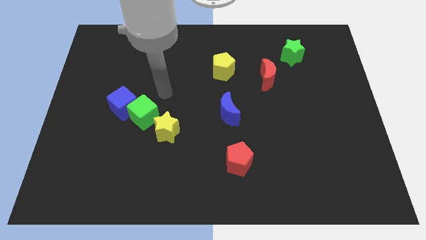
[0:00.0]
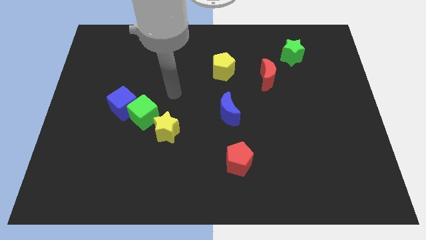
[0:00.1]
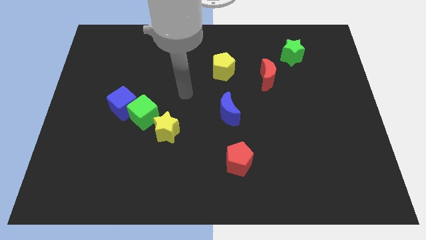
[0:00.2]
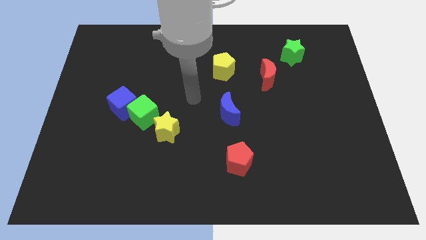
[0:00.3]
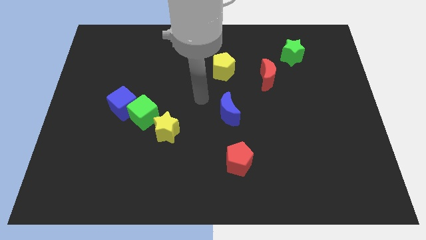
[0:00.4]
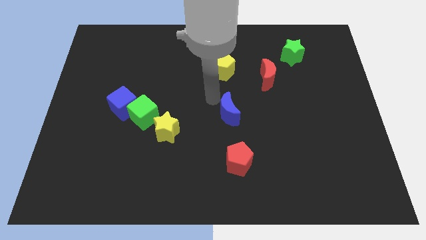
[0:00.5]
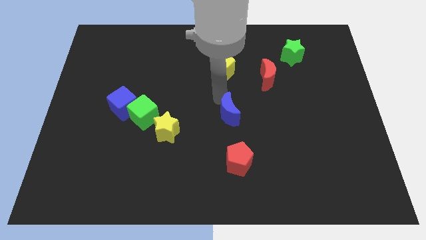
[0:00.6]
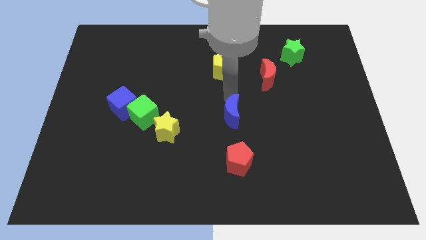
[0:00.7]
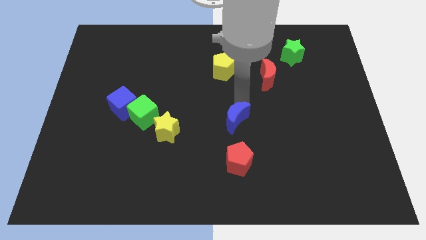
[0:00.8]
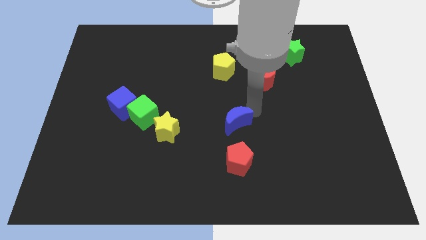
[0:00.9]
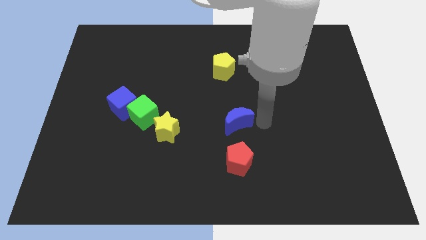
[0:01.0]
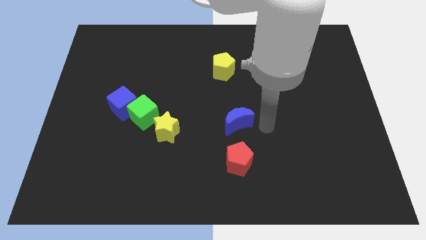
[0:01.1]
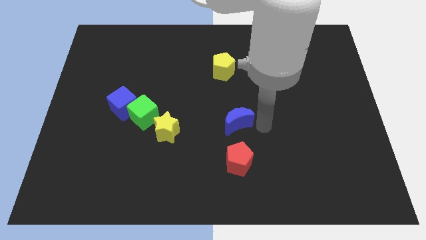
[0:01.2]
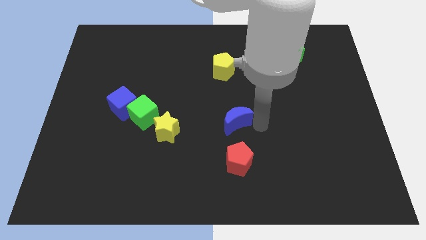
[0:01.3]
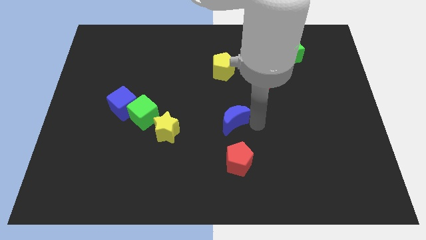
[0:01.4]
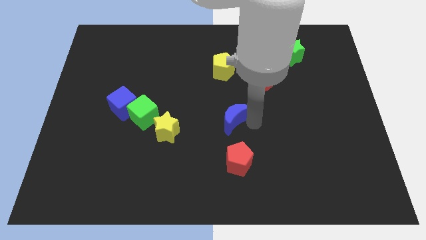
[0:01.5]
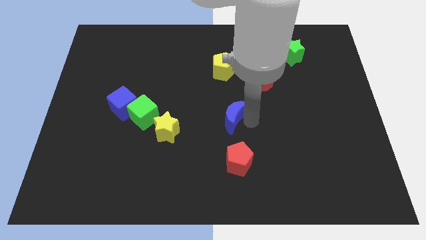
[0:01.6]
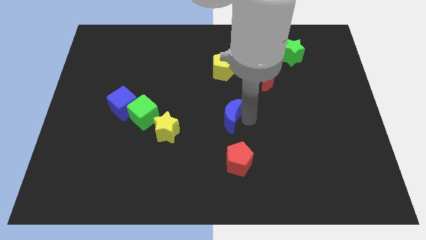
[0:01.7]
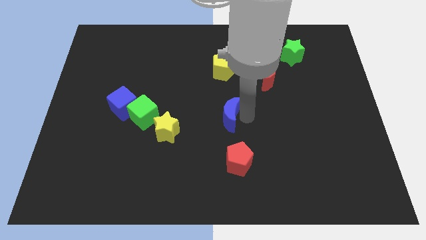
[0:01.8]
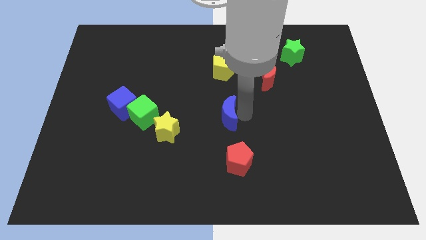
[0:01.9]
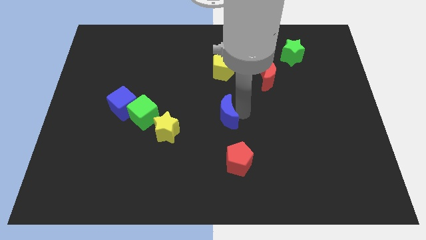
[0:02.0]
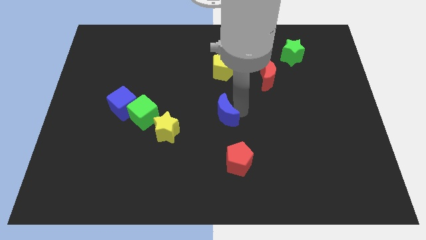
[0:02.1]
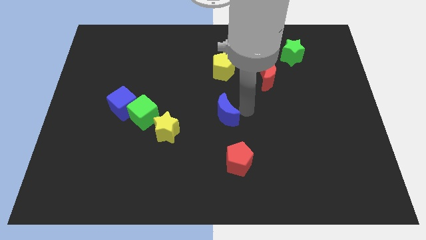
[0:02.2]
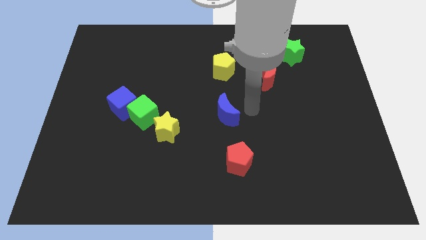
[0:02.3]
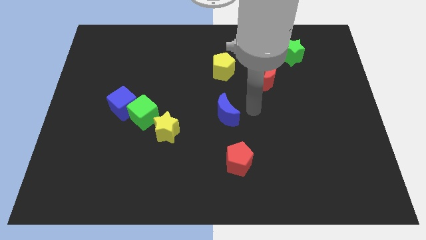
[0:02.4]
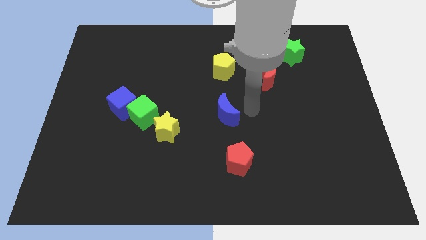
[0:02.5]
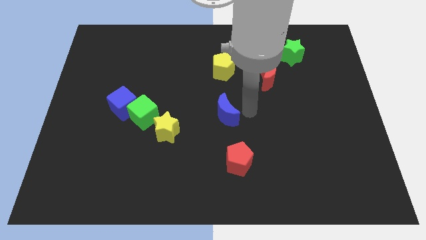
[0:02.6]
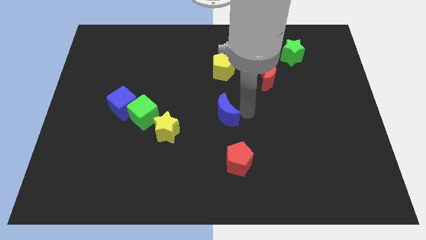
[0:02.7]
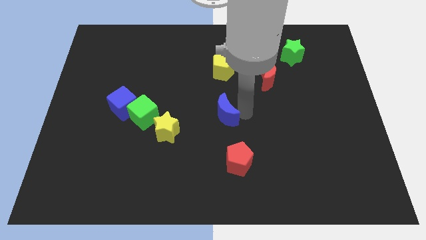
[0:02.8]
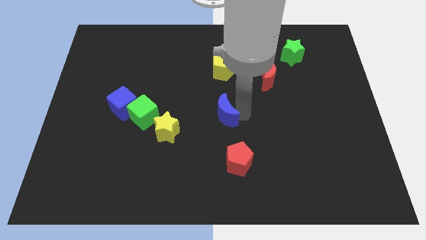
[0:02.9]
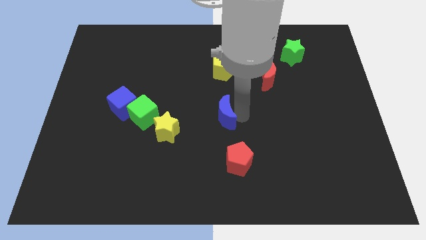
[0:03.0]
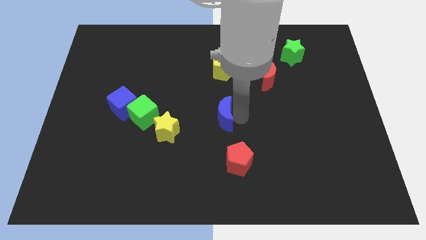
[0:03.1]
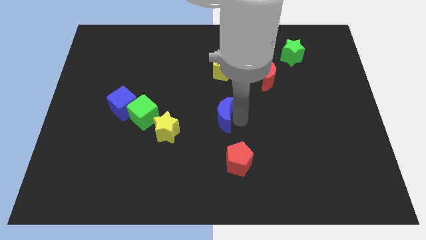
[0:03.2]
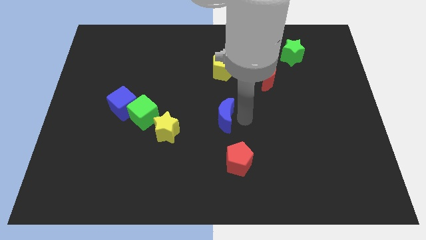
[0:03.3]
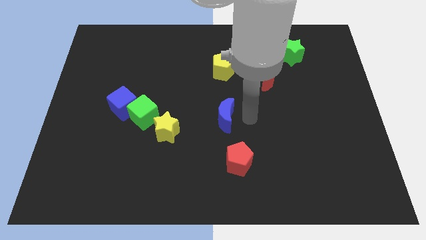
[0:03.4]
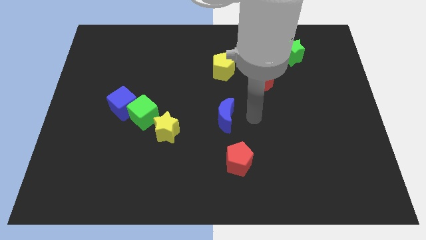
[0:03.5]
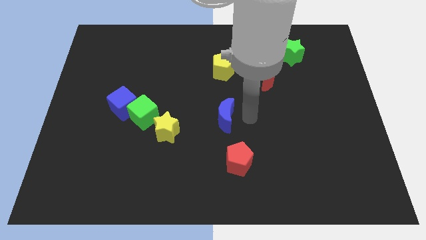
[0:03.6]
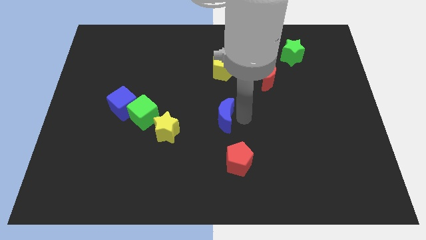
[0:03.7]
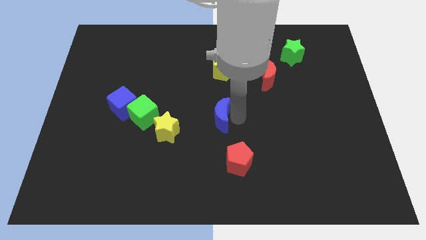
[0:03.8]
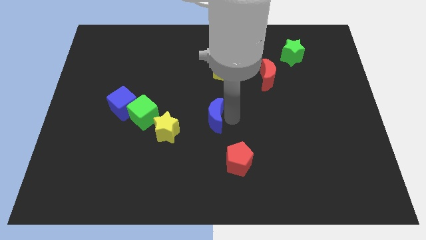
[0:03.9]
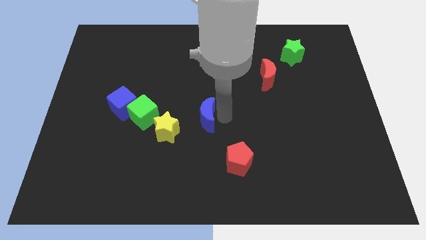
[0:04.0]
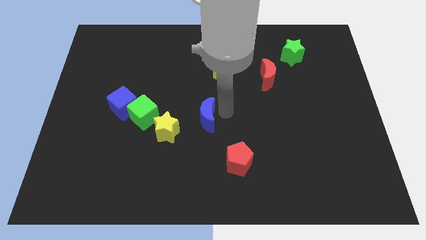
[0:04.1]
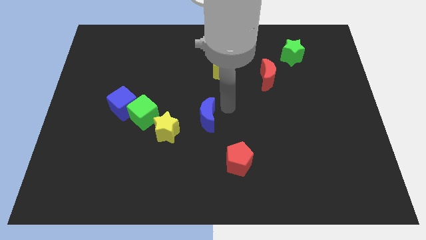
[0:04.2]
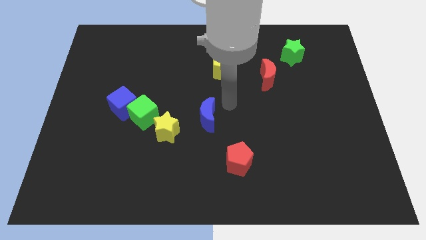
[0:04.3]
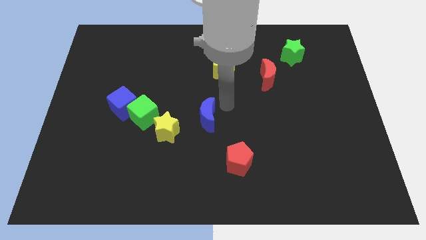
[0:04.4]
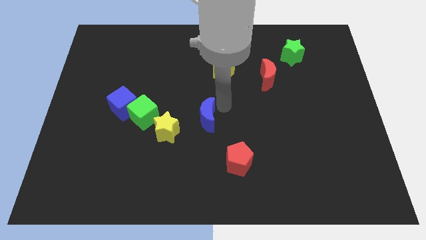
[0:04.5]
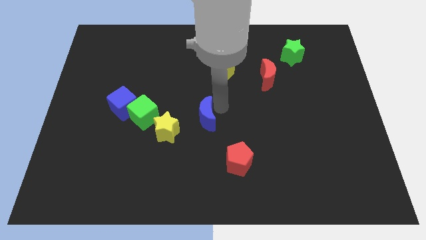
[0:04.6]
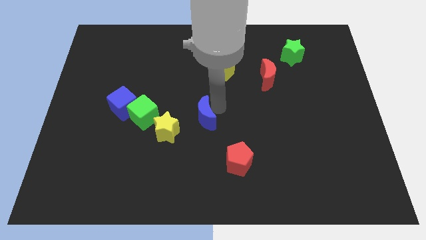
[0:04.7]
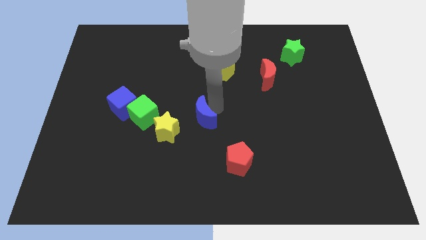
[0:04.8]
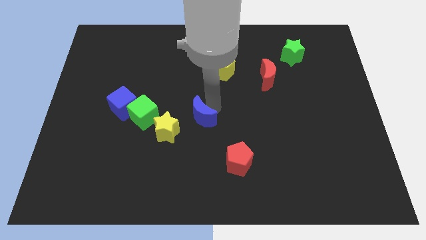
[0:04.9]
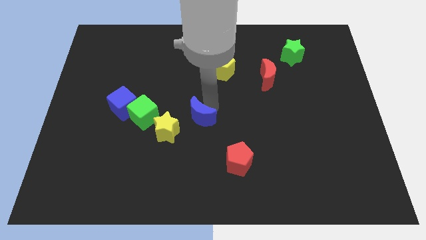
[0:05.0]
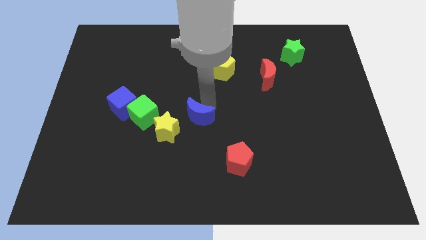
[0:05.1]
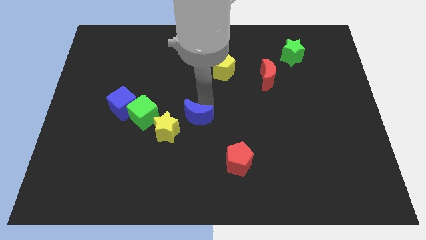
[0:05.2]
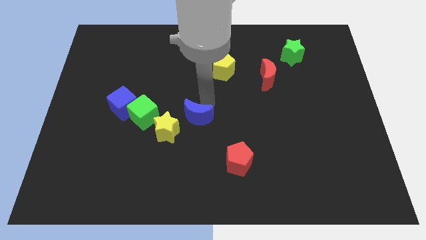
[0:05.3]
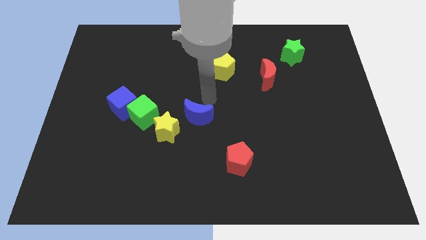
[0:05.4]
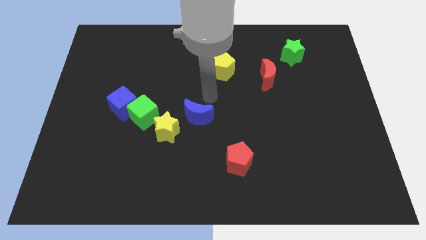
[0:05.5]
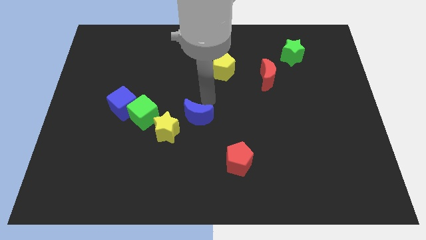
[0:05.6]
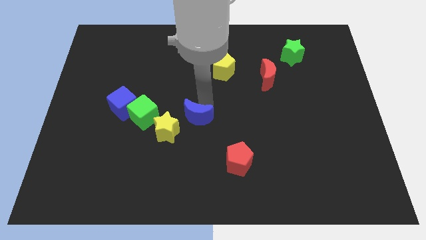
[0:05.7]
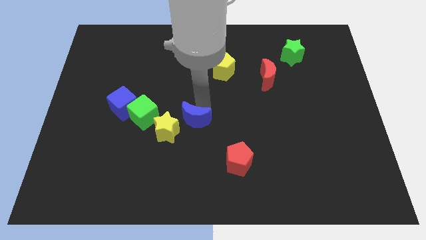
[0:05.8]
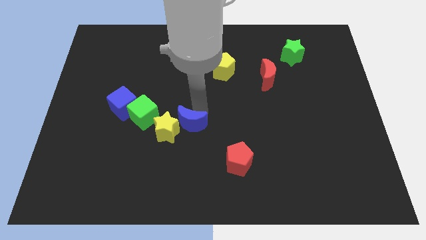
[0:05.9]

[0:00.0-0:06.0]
put the blue moon to the yellow star

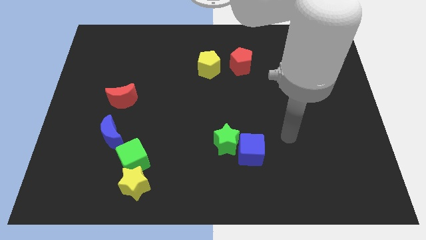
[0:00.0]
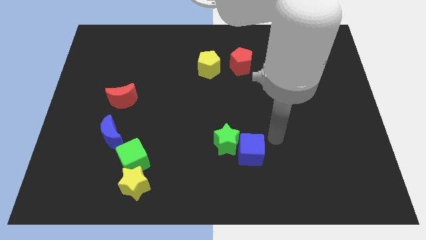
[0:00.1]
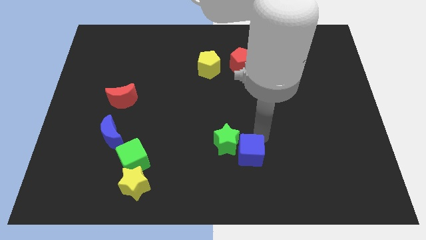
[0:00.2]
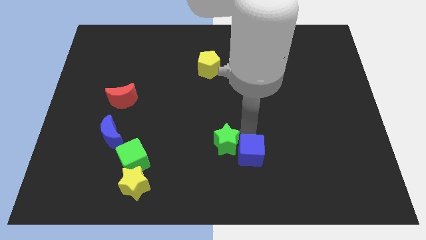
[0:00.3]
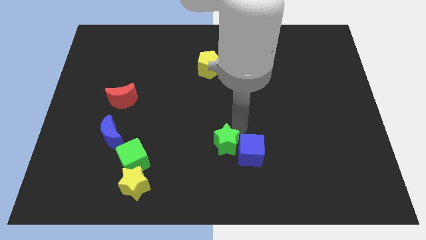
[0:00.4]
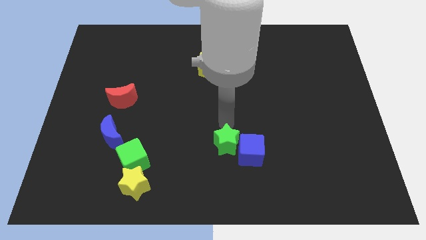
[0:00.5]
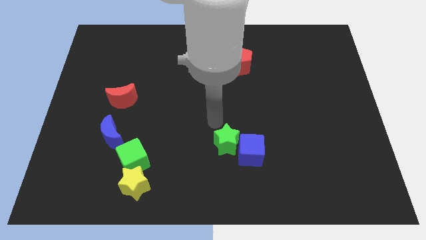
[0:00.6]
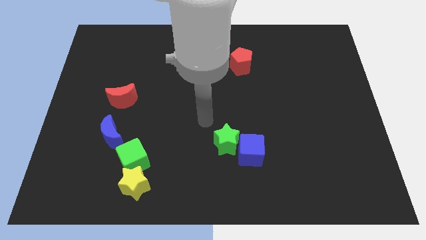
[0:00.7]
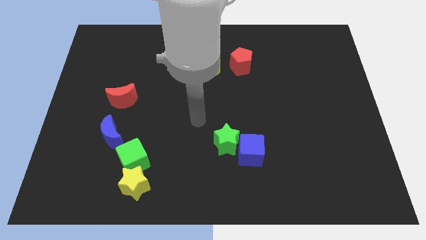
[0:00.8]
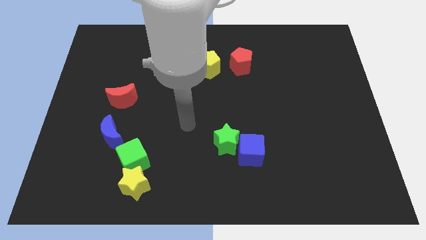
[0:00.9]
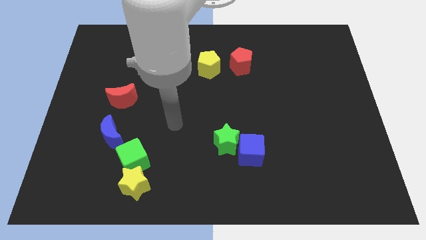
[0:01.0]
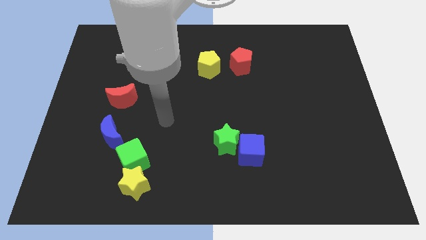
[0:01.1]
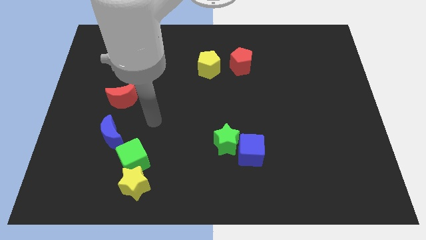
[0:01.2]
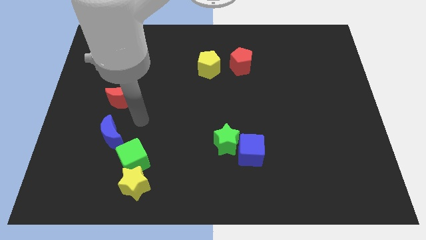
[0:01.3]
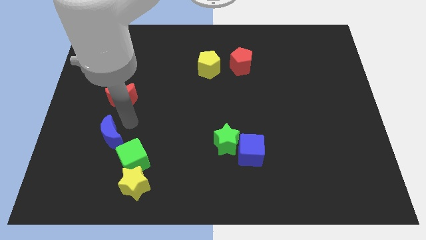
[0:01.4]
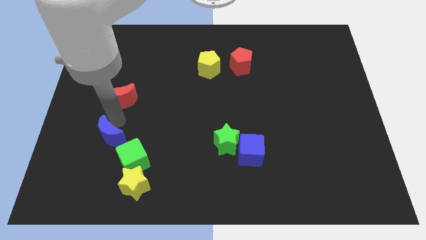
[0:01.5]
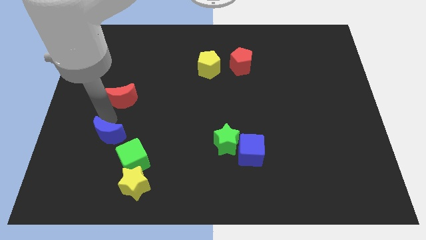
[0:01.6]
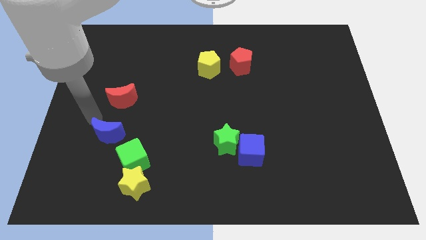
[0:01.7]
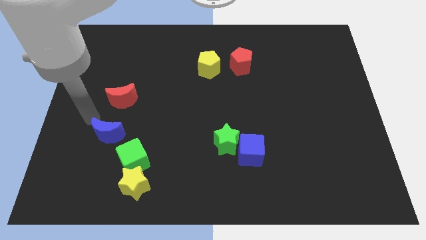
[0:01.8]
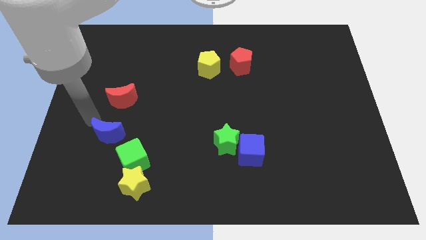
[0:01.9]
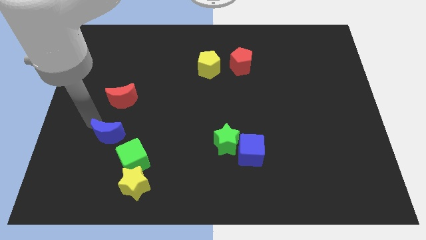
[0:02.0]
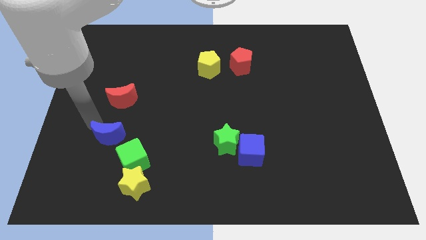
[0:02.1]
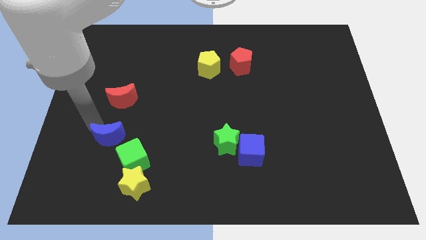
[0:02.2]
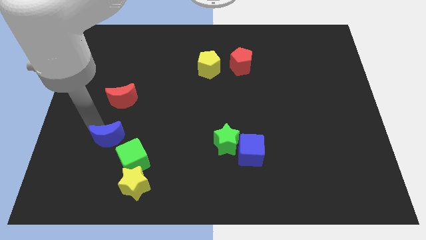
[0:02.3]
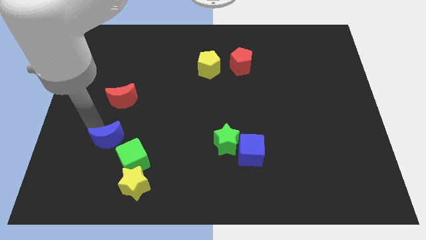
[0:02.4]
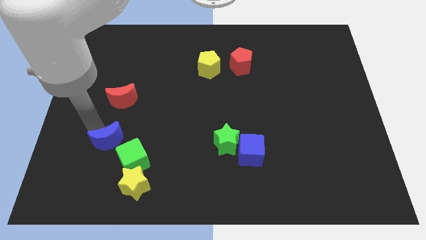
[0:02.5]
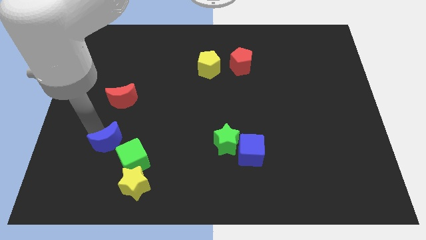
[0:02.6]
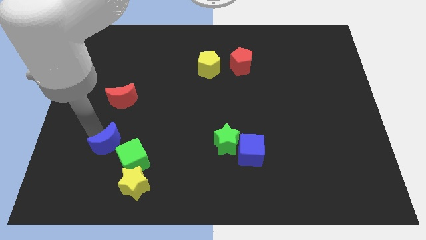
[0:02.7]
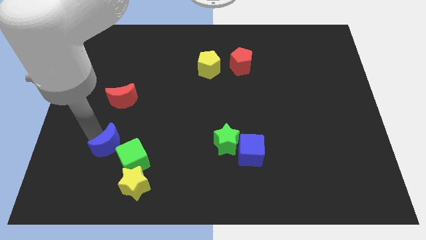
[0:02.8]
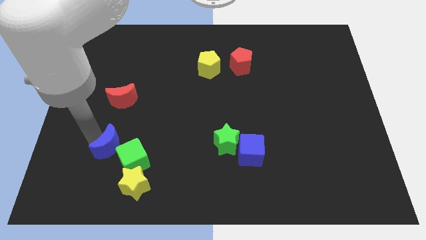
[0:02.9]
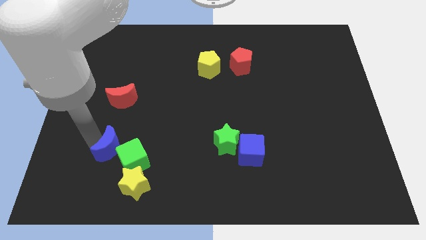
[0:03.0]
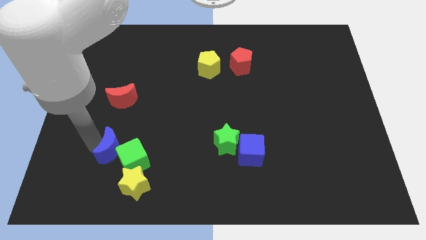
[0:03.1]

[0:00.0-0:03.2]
push the blue moon close to the green cube
